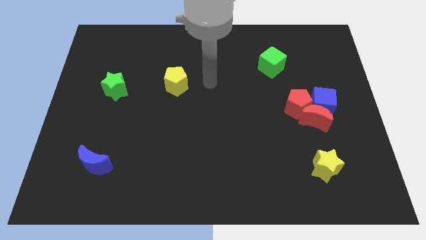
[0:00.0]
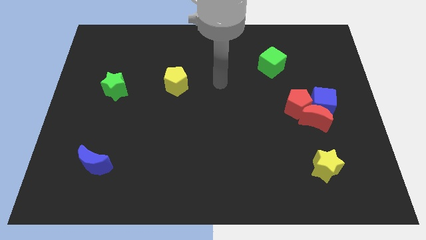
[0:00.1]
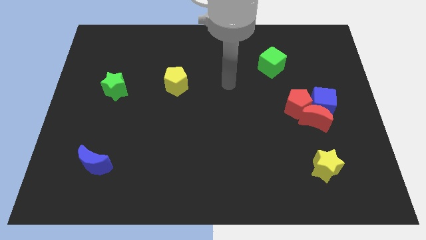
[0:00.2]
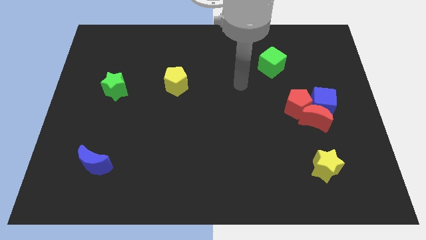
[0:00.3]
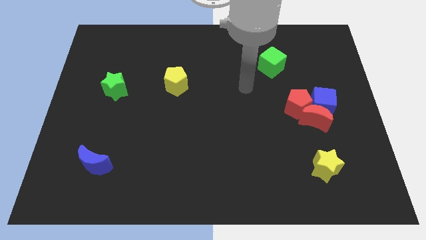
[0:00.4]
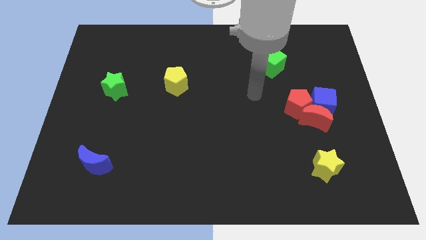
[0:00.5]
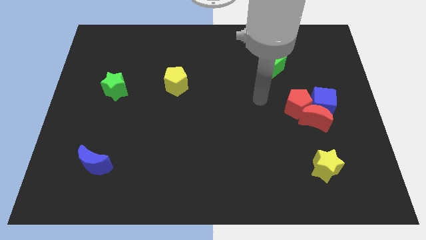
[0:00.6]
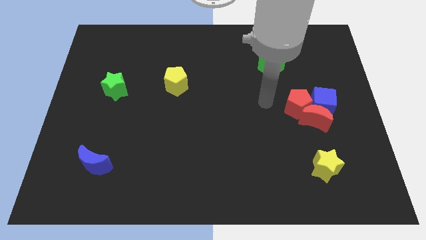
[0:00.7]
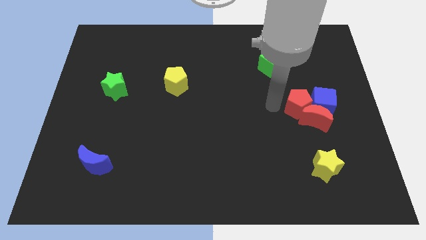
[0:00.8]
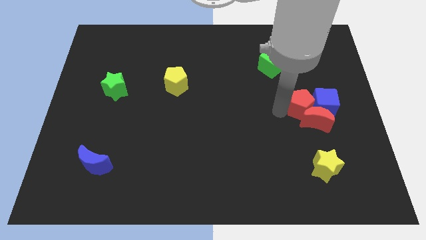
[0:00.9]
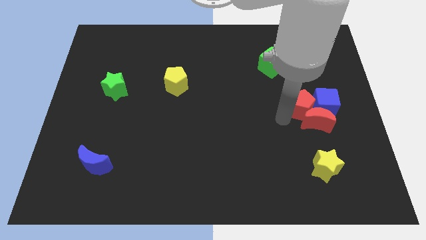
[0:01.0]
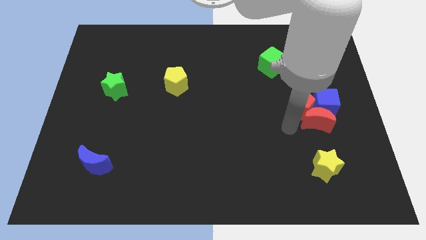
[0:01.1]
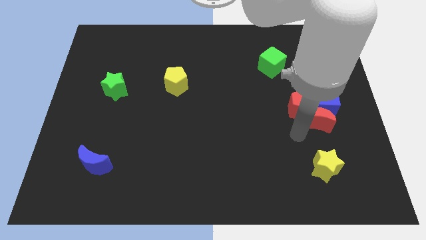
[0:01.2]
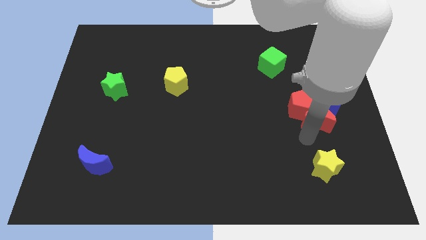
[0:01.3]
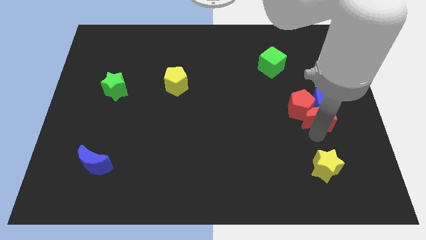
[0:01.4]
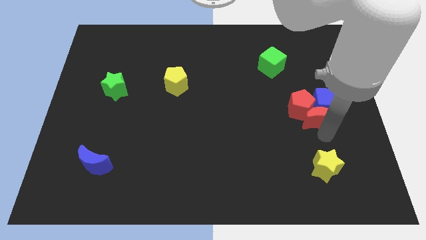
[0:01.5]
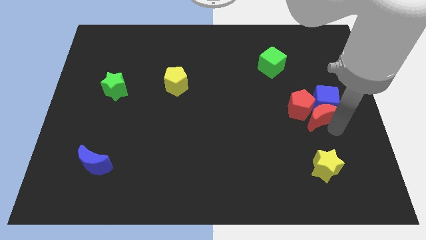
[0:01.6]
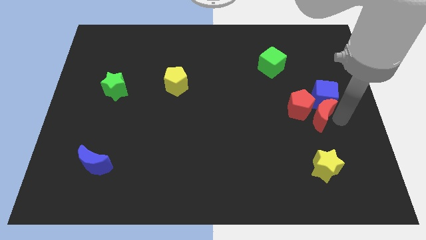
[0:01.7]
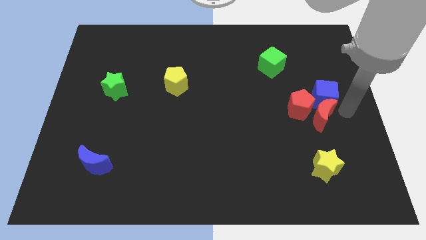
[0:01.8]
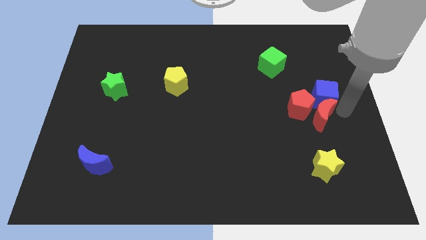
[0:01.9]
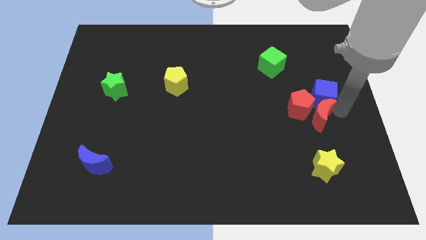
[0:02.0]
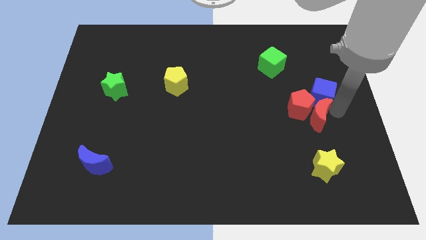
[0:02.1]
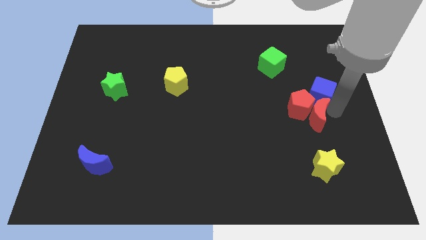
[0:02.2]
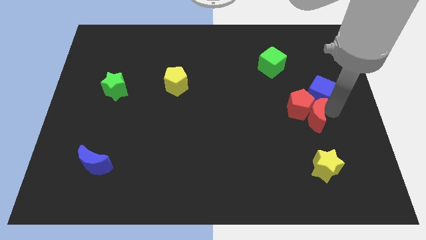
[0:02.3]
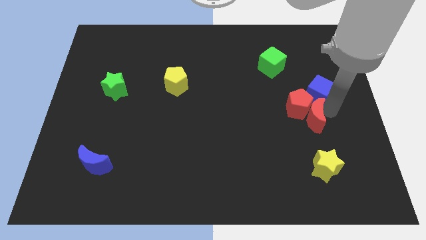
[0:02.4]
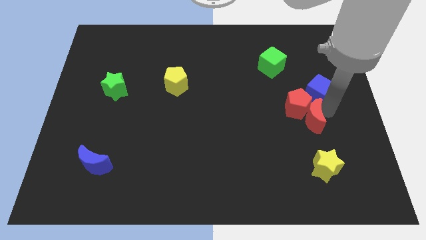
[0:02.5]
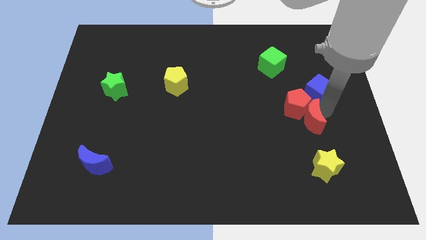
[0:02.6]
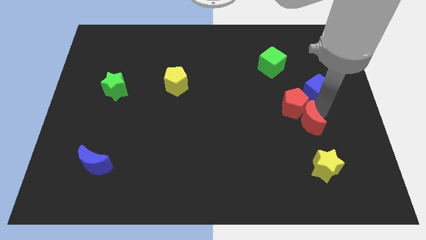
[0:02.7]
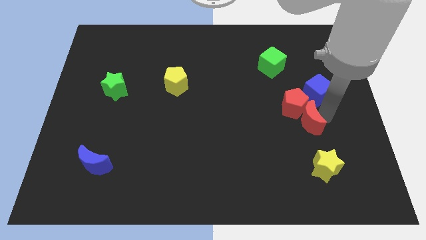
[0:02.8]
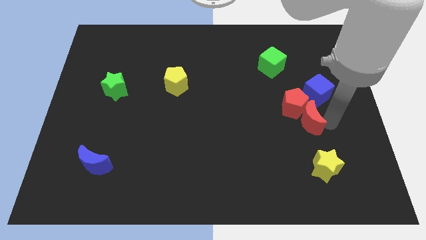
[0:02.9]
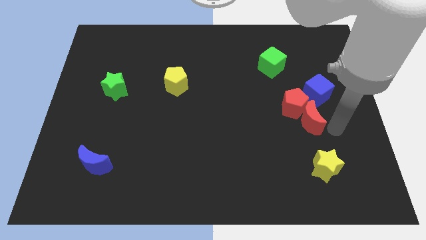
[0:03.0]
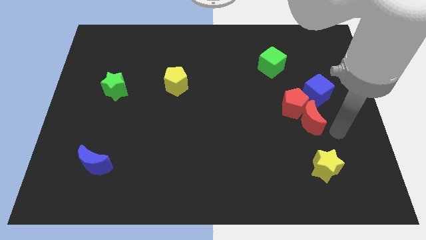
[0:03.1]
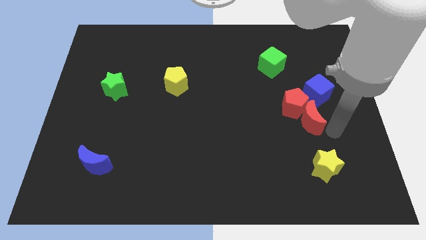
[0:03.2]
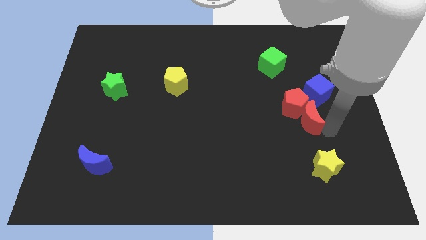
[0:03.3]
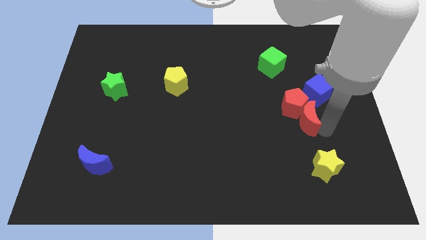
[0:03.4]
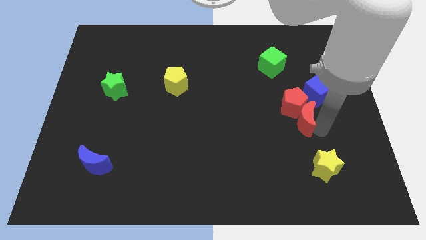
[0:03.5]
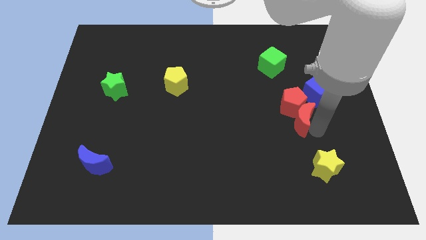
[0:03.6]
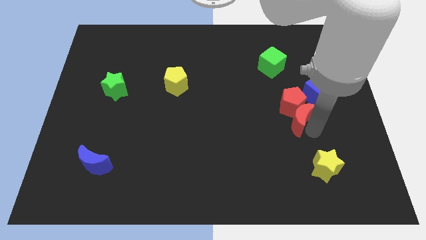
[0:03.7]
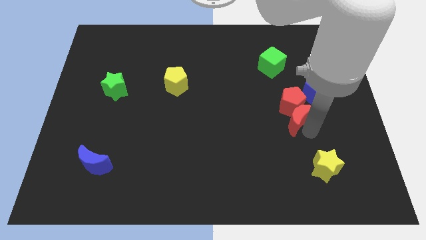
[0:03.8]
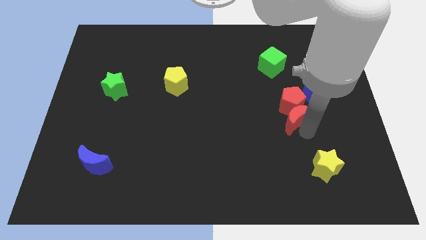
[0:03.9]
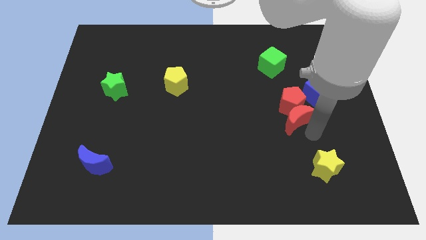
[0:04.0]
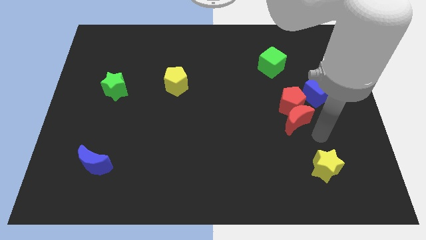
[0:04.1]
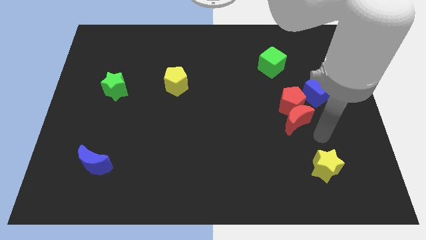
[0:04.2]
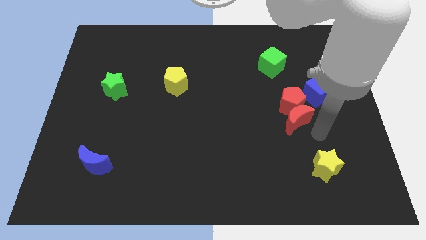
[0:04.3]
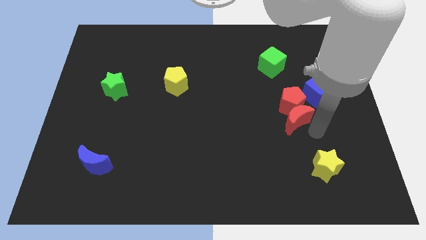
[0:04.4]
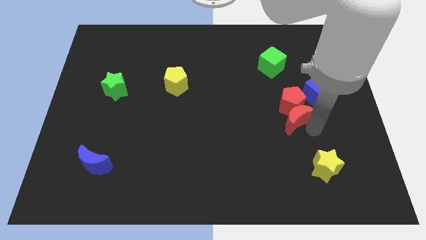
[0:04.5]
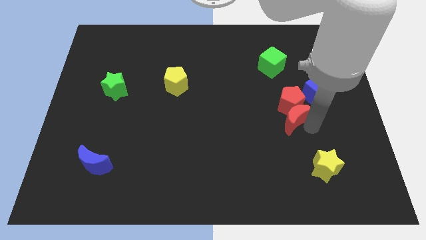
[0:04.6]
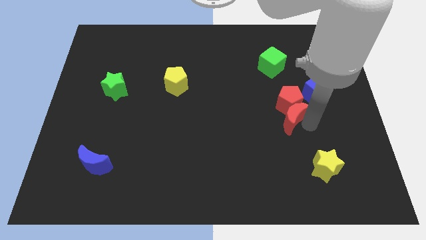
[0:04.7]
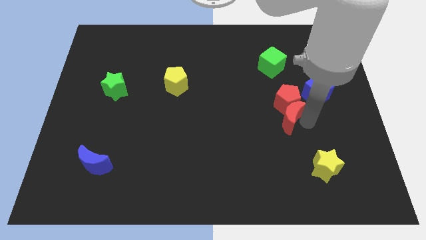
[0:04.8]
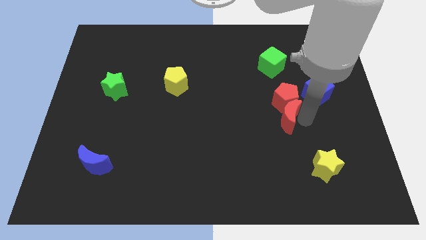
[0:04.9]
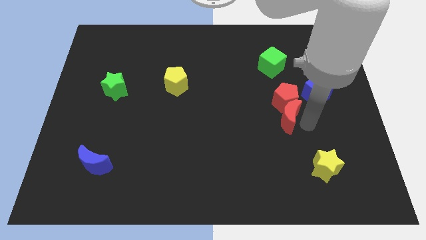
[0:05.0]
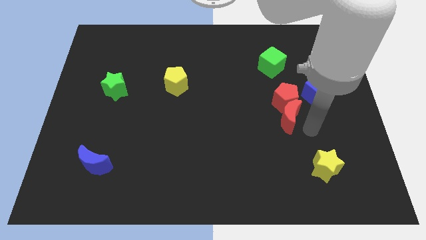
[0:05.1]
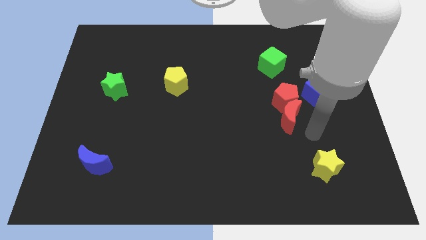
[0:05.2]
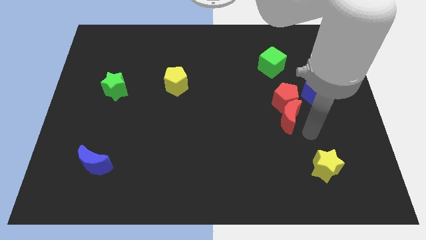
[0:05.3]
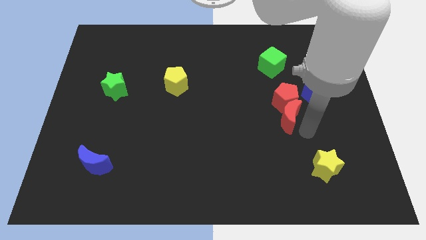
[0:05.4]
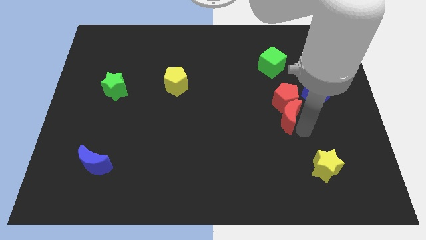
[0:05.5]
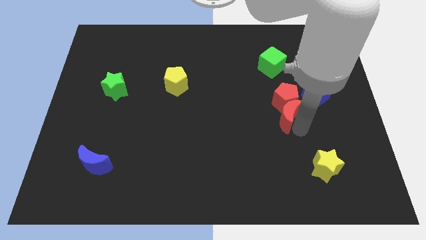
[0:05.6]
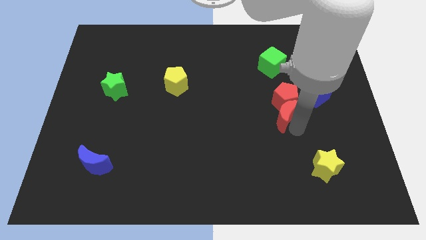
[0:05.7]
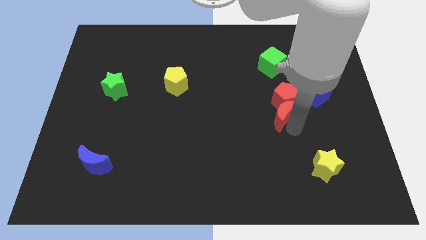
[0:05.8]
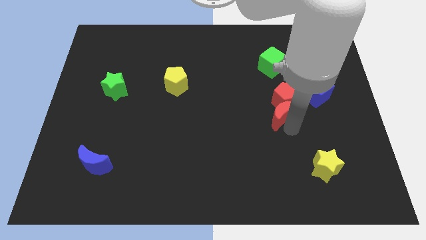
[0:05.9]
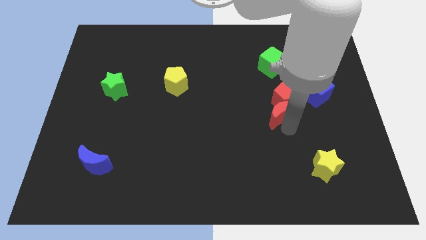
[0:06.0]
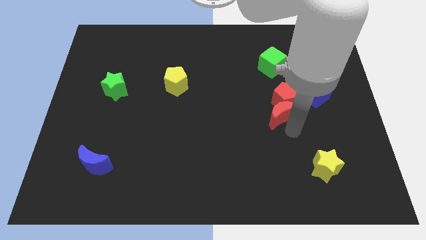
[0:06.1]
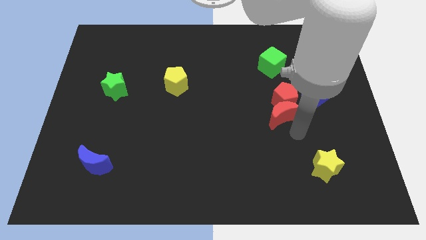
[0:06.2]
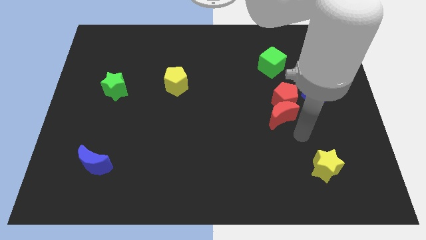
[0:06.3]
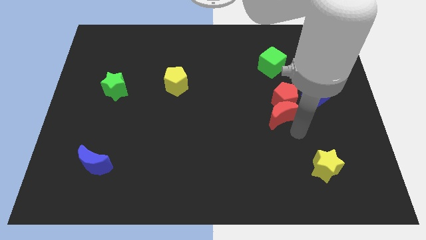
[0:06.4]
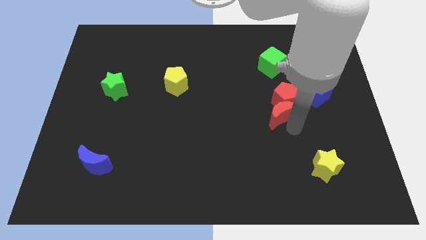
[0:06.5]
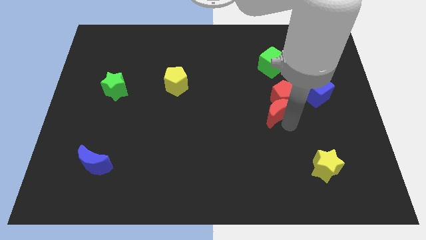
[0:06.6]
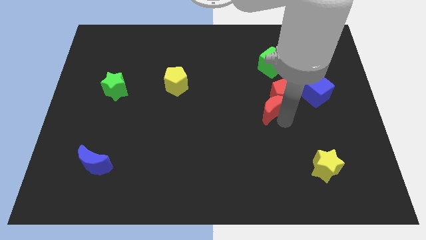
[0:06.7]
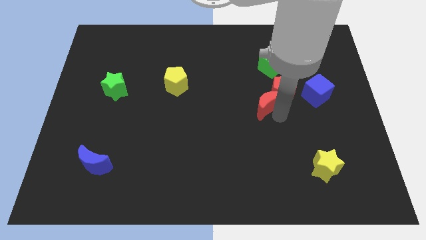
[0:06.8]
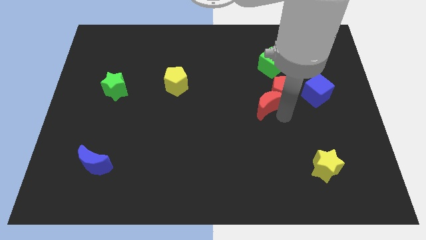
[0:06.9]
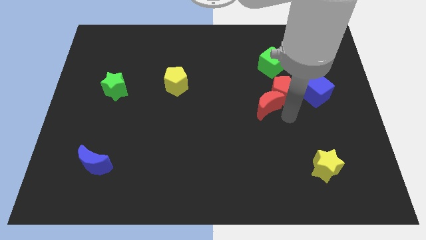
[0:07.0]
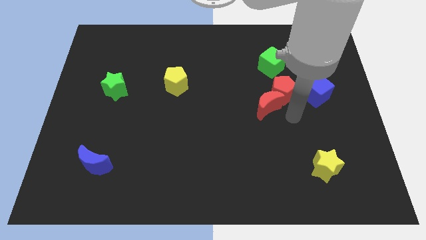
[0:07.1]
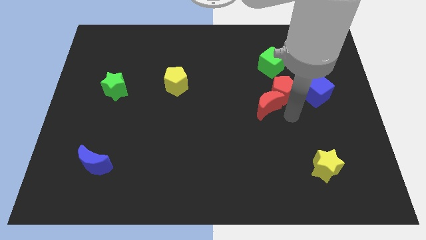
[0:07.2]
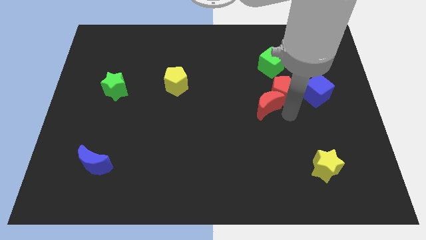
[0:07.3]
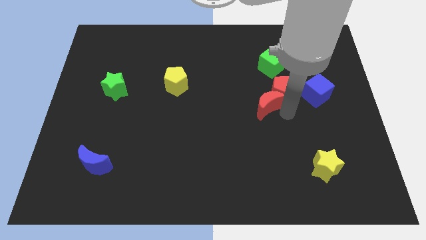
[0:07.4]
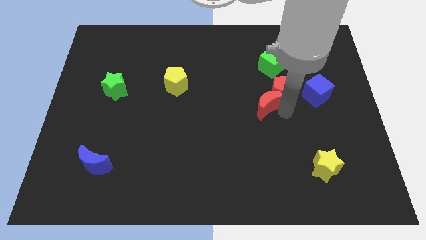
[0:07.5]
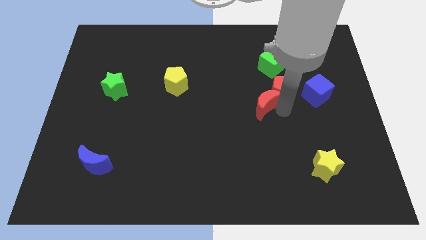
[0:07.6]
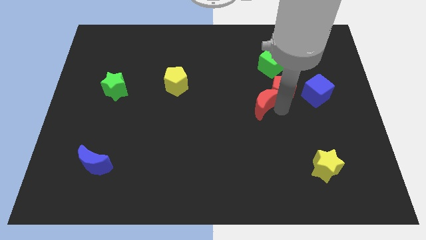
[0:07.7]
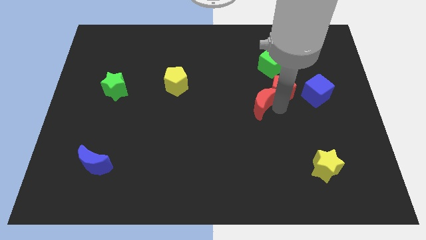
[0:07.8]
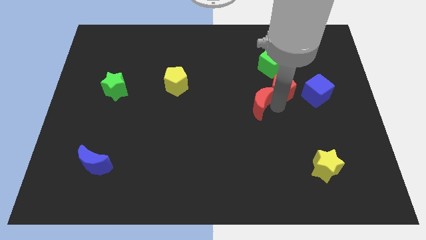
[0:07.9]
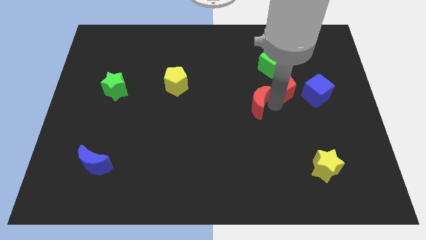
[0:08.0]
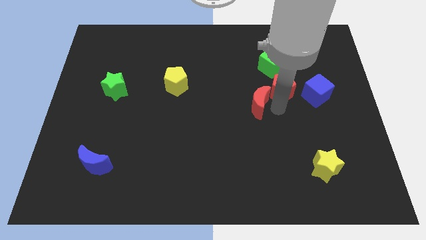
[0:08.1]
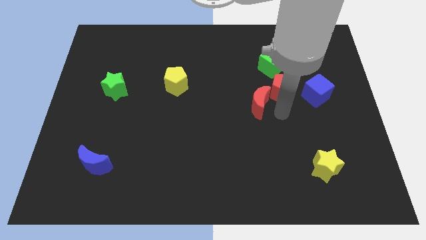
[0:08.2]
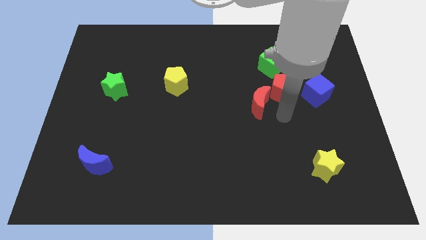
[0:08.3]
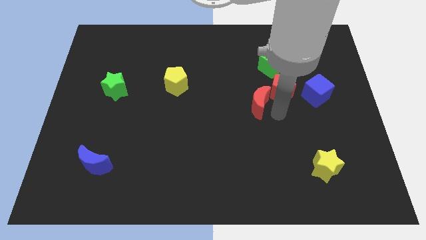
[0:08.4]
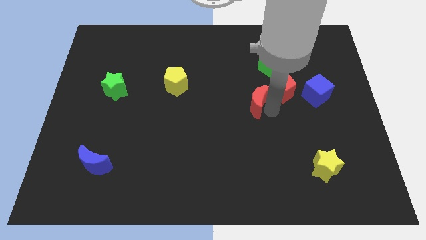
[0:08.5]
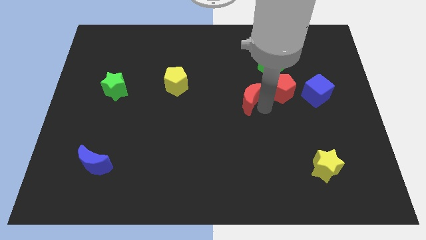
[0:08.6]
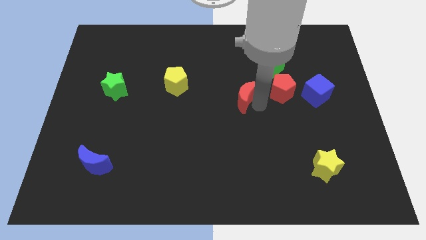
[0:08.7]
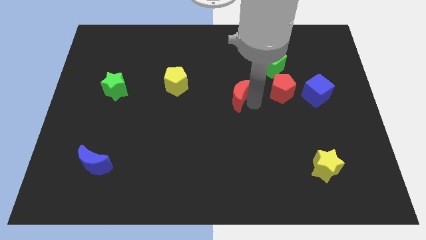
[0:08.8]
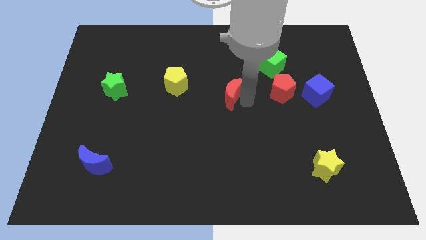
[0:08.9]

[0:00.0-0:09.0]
put the red moon right of the yellow pentagon
